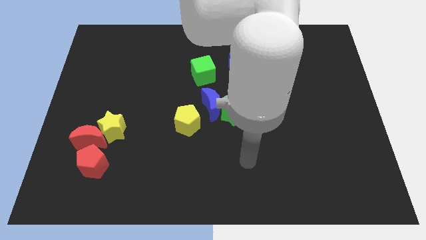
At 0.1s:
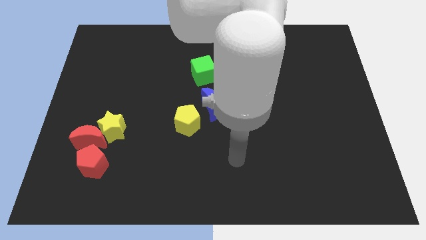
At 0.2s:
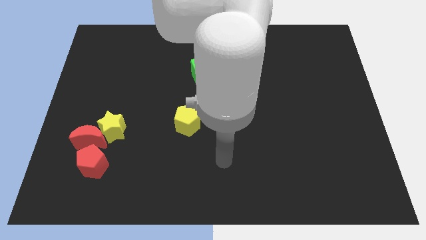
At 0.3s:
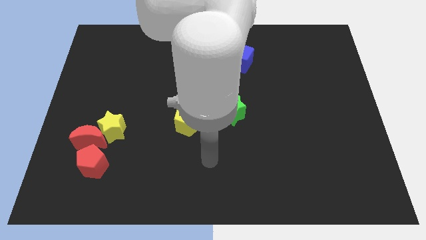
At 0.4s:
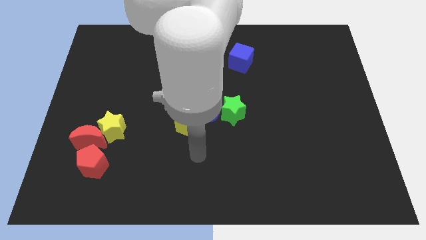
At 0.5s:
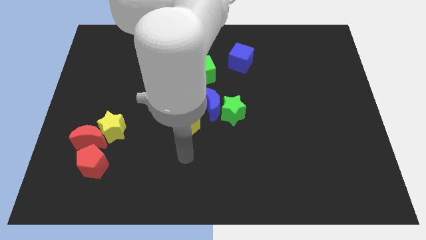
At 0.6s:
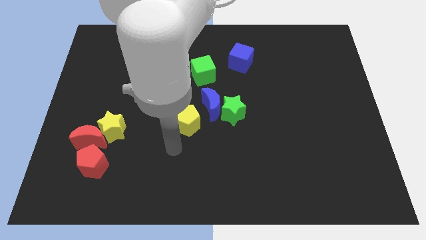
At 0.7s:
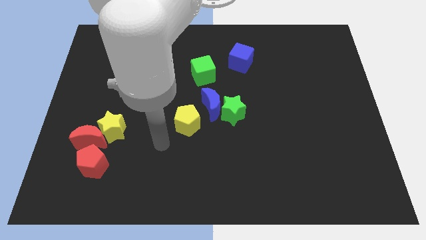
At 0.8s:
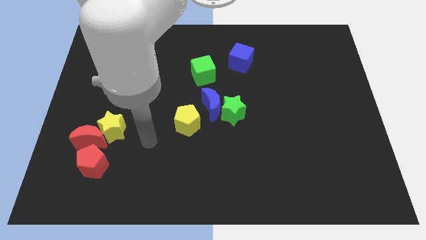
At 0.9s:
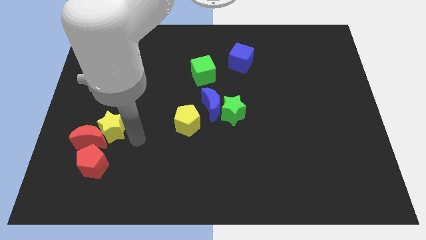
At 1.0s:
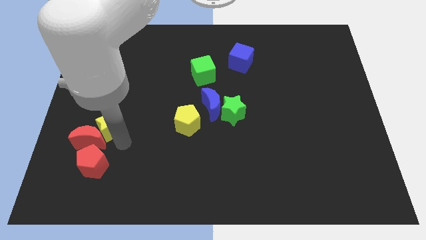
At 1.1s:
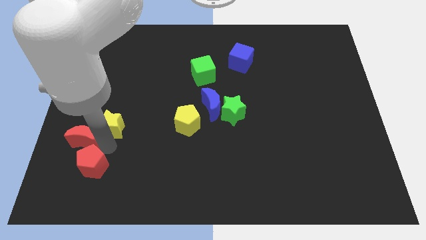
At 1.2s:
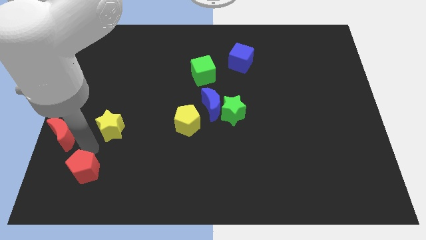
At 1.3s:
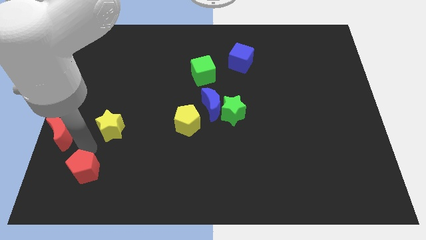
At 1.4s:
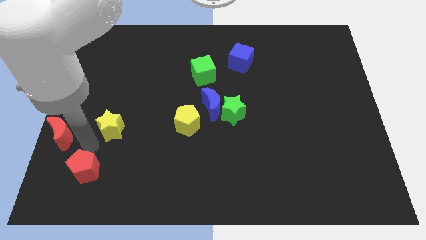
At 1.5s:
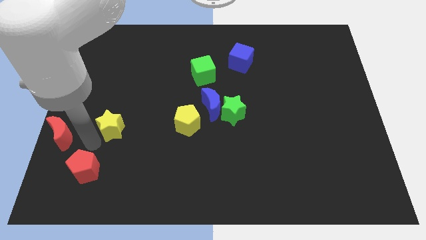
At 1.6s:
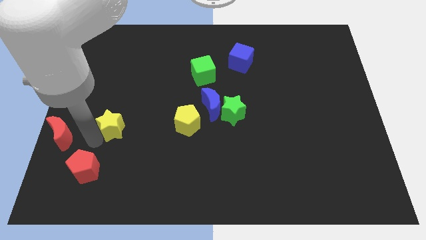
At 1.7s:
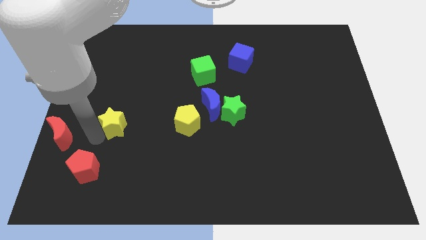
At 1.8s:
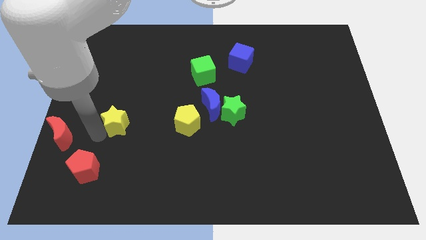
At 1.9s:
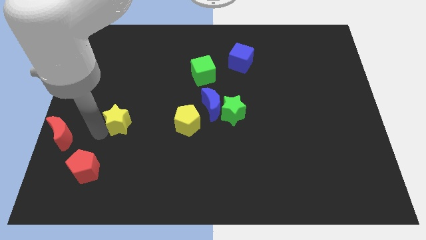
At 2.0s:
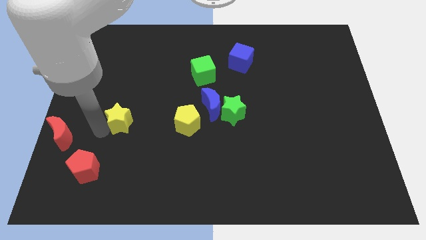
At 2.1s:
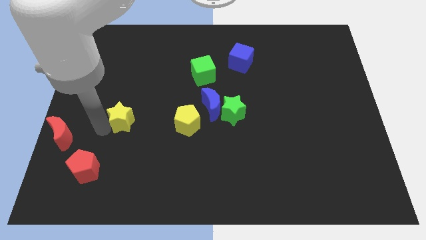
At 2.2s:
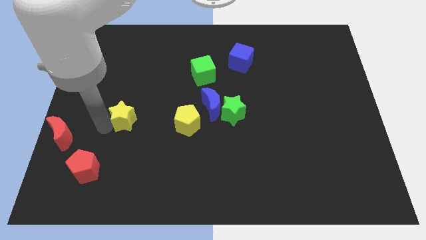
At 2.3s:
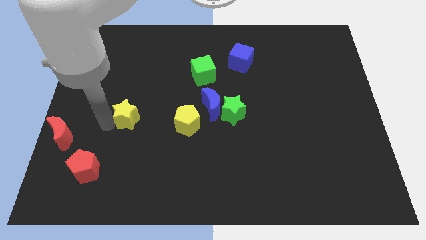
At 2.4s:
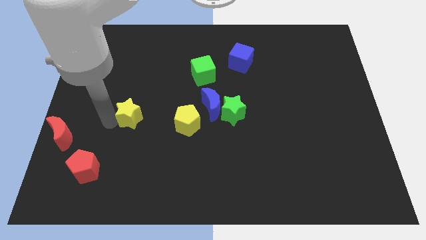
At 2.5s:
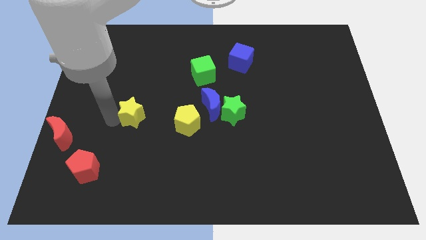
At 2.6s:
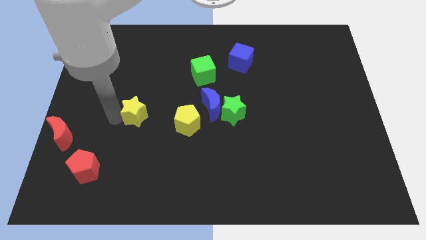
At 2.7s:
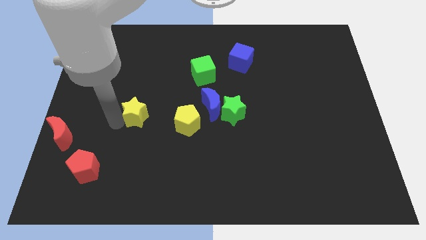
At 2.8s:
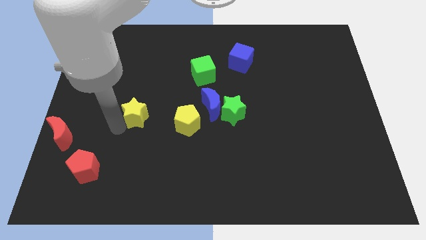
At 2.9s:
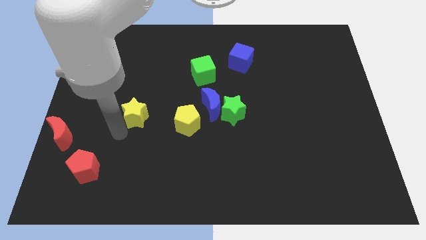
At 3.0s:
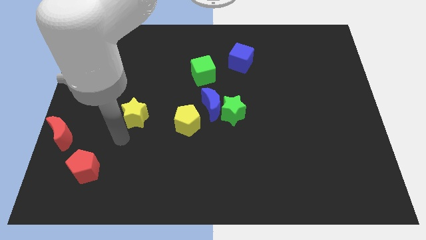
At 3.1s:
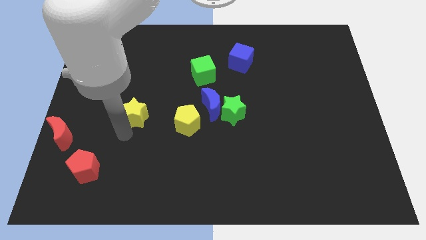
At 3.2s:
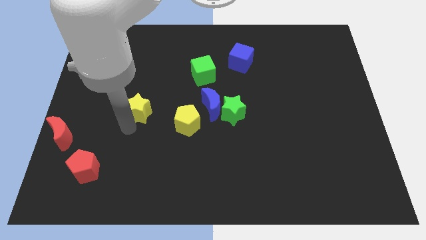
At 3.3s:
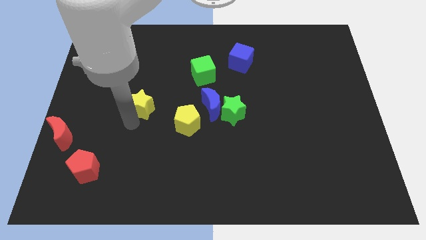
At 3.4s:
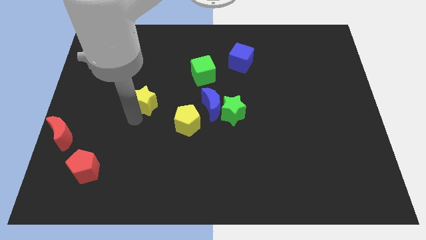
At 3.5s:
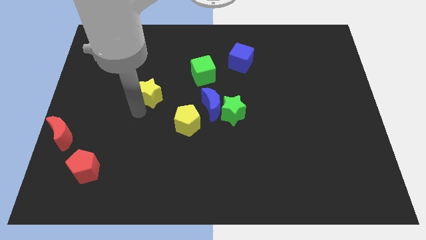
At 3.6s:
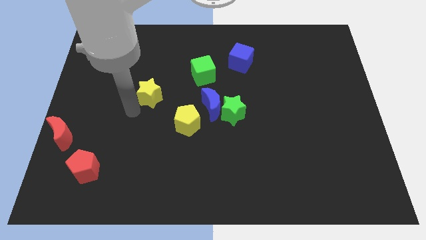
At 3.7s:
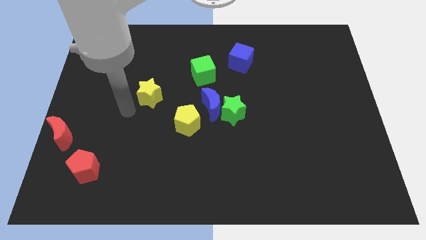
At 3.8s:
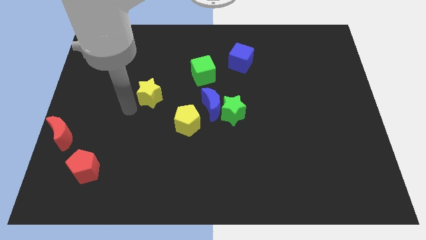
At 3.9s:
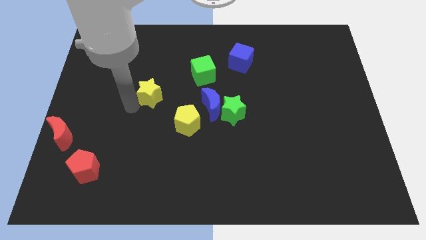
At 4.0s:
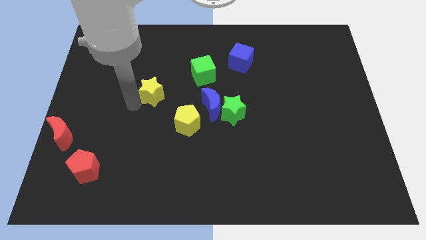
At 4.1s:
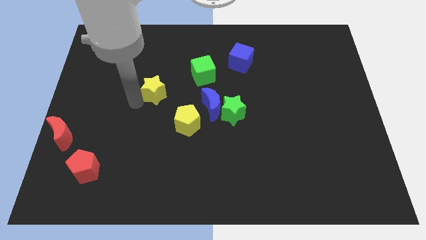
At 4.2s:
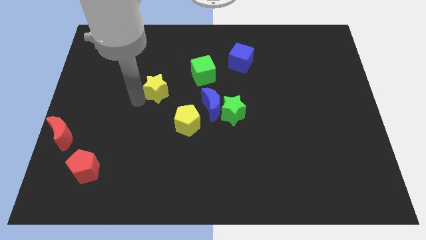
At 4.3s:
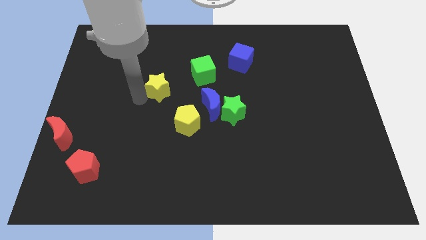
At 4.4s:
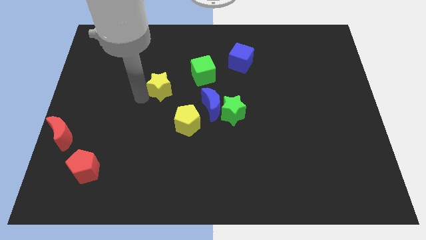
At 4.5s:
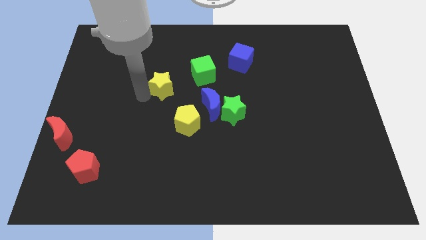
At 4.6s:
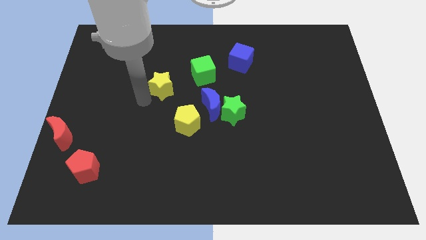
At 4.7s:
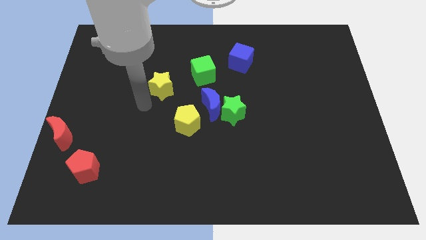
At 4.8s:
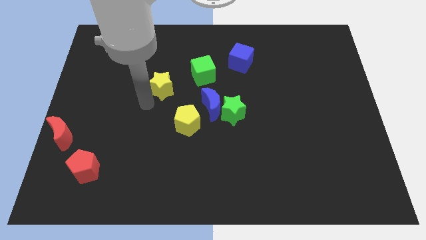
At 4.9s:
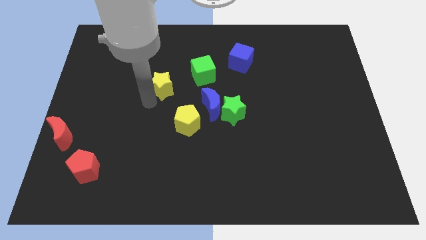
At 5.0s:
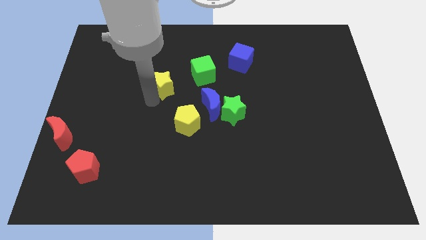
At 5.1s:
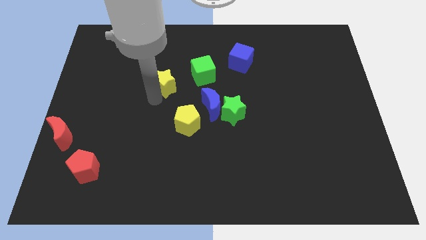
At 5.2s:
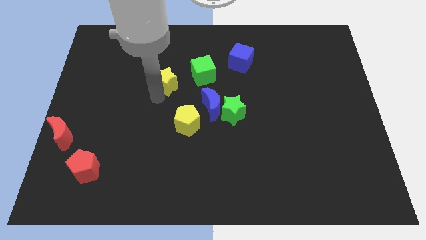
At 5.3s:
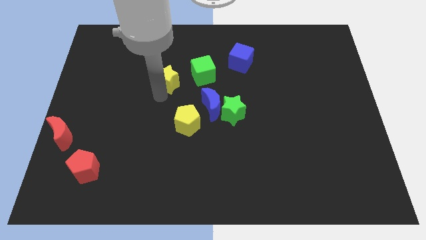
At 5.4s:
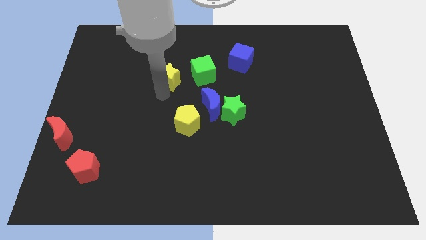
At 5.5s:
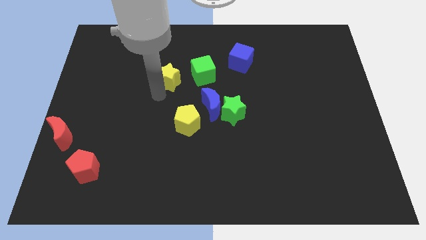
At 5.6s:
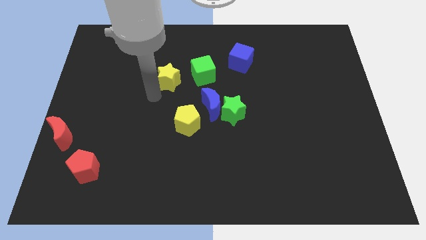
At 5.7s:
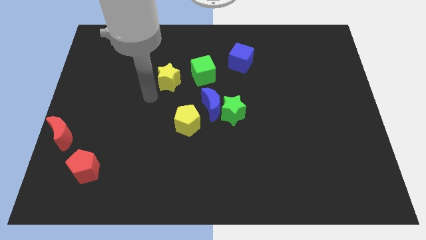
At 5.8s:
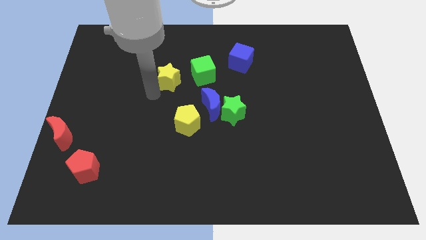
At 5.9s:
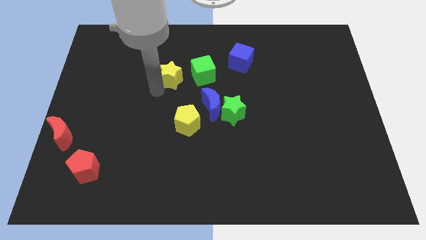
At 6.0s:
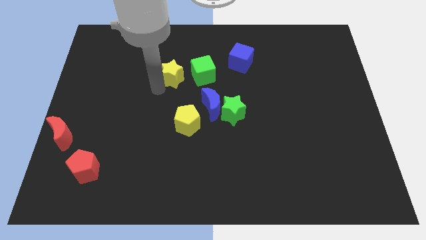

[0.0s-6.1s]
move the yellow star diagonally up and to the right

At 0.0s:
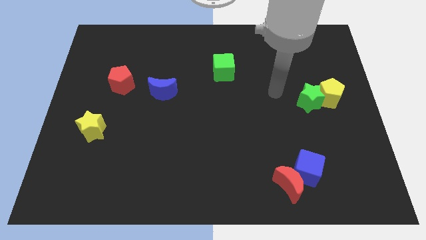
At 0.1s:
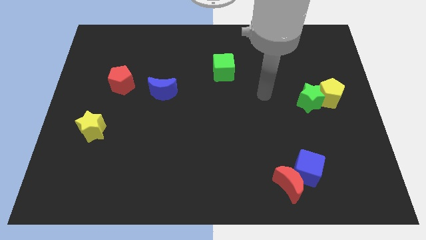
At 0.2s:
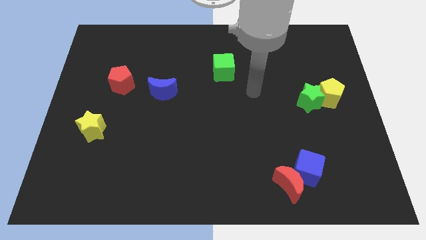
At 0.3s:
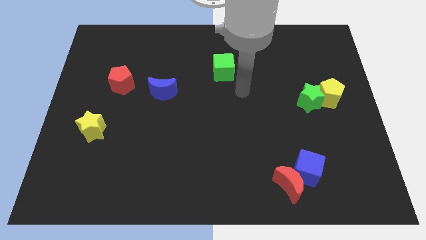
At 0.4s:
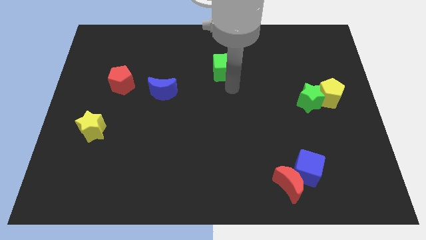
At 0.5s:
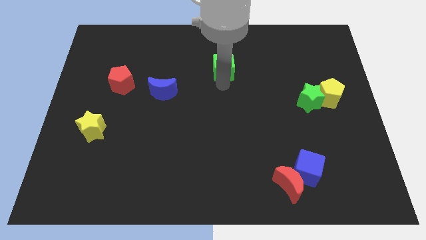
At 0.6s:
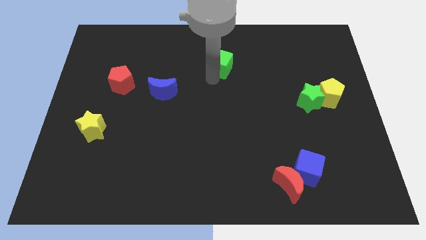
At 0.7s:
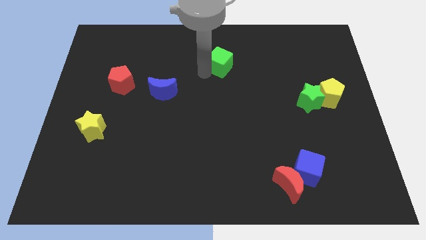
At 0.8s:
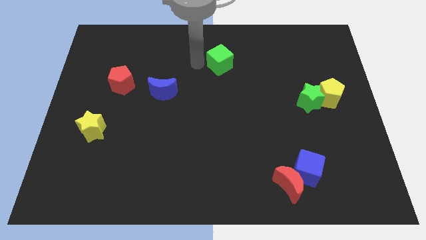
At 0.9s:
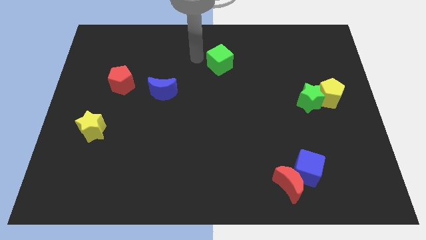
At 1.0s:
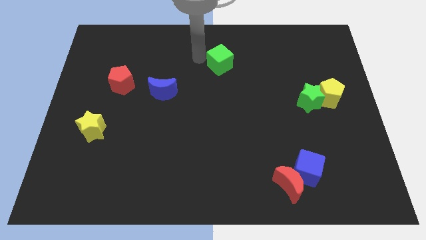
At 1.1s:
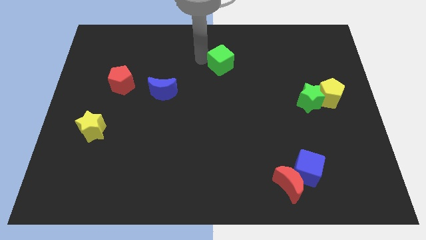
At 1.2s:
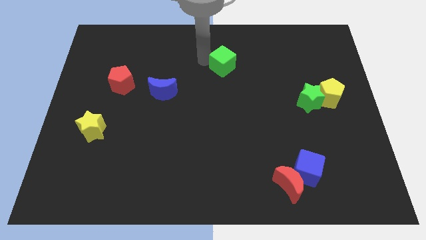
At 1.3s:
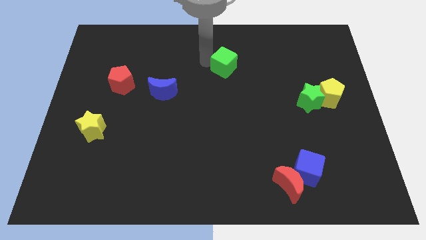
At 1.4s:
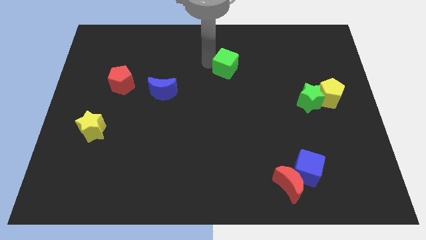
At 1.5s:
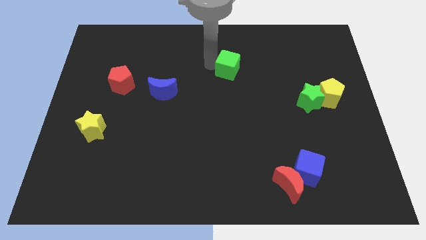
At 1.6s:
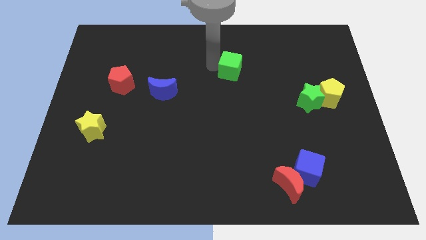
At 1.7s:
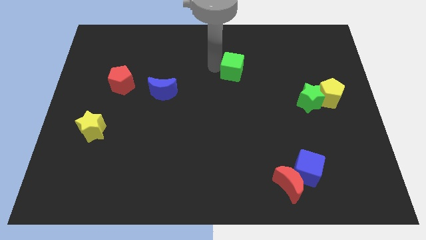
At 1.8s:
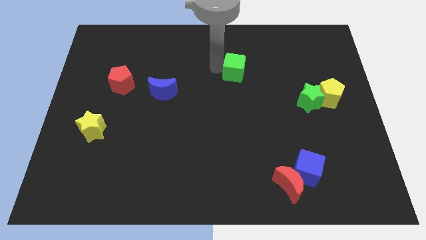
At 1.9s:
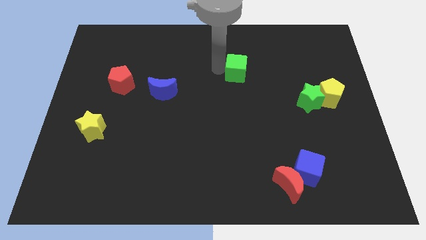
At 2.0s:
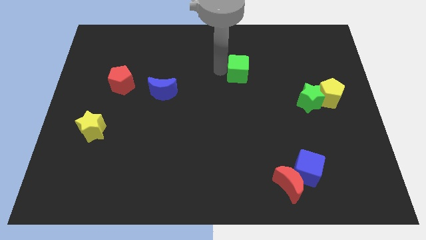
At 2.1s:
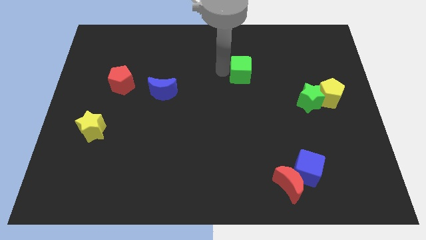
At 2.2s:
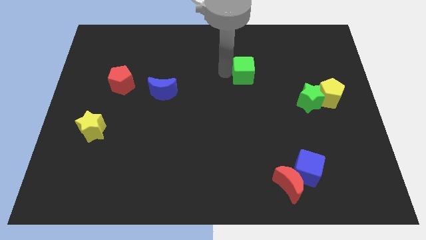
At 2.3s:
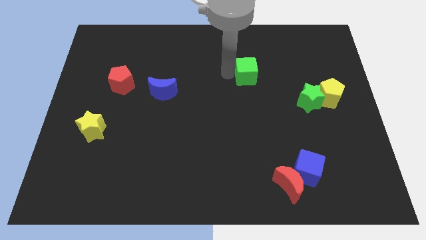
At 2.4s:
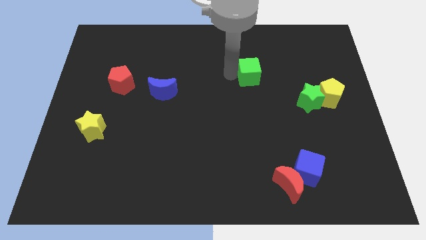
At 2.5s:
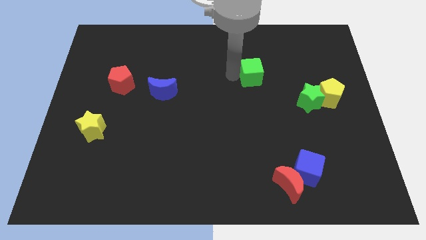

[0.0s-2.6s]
move the green cube somewhat right
